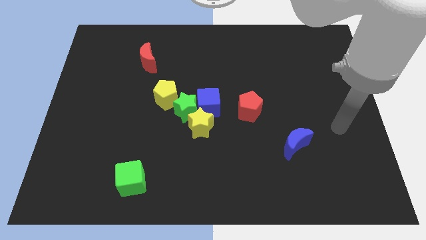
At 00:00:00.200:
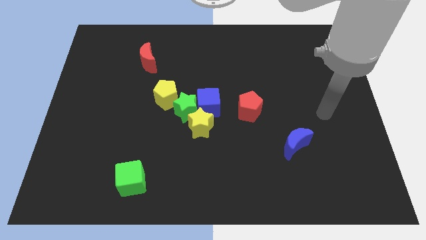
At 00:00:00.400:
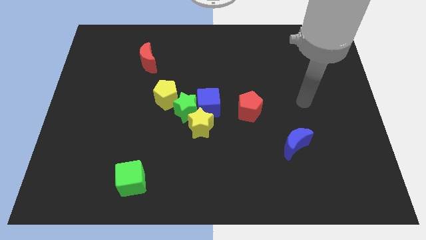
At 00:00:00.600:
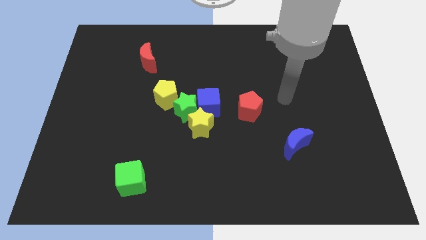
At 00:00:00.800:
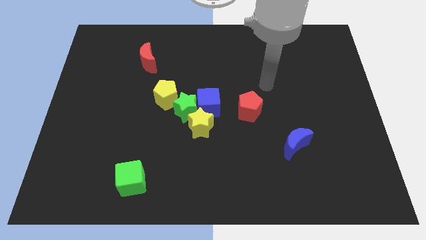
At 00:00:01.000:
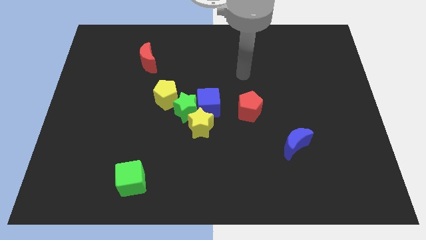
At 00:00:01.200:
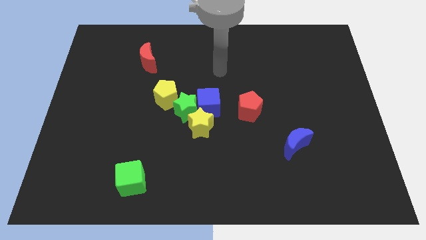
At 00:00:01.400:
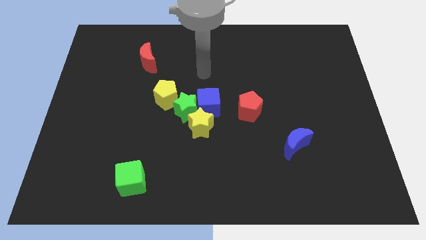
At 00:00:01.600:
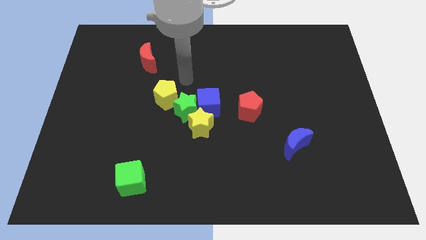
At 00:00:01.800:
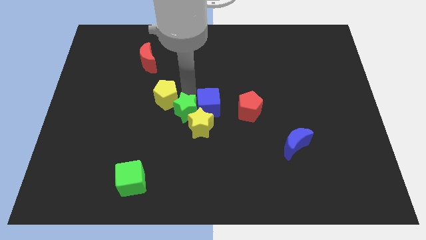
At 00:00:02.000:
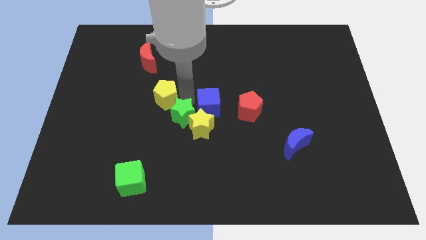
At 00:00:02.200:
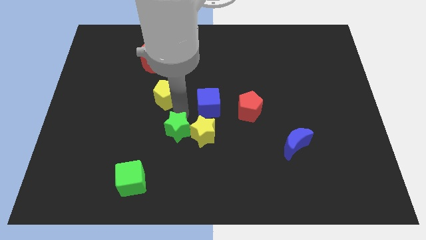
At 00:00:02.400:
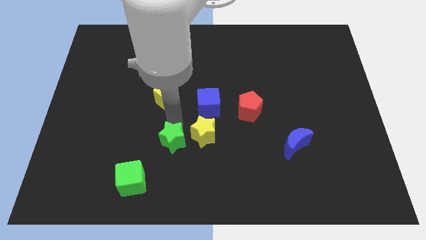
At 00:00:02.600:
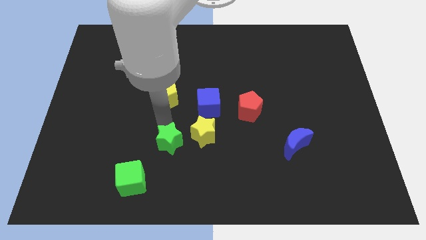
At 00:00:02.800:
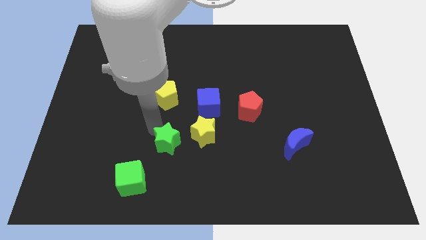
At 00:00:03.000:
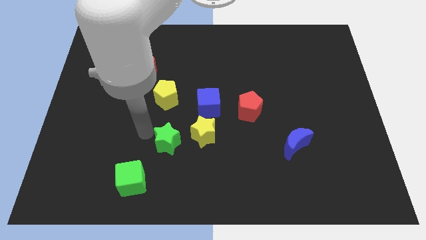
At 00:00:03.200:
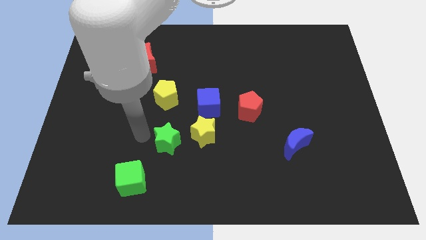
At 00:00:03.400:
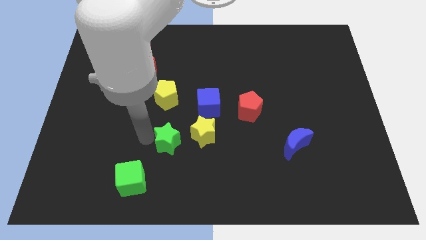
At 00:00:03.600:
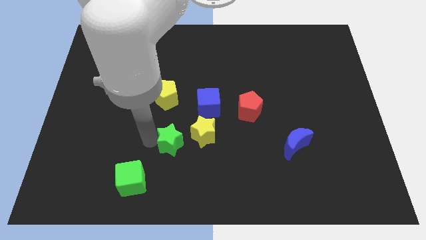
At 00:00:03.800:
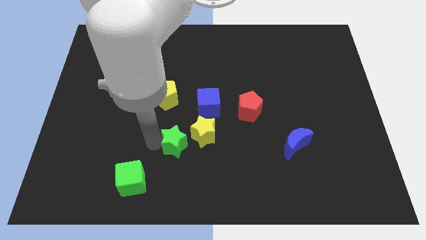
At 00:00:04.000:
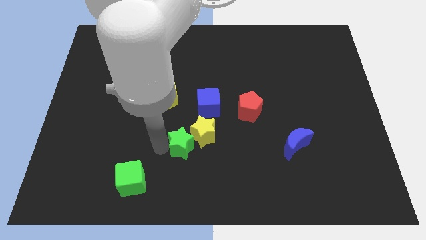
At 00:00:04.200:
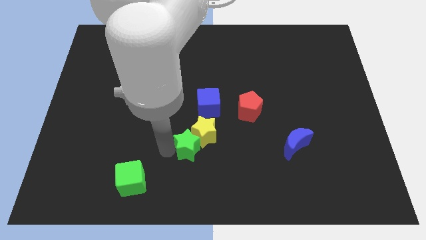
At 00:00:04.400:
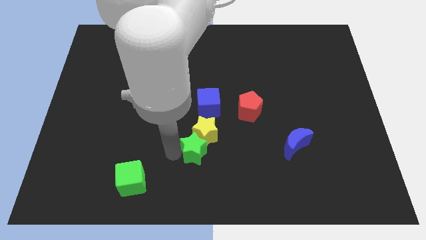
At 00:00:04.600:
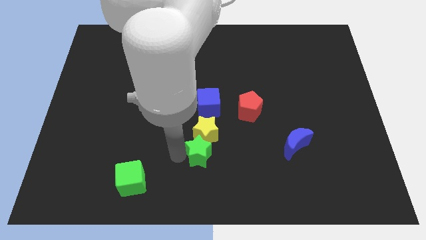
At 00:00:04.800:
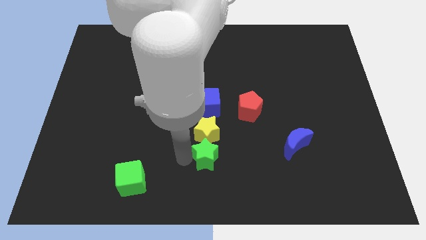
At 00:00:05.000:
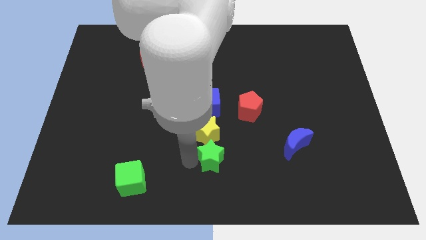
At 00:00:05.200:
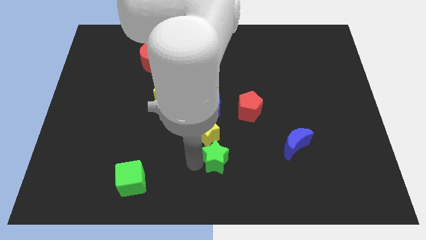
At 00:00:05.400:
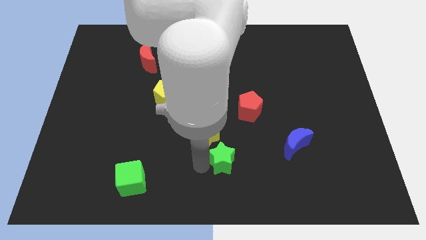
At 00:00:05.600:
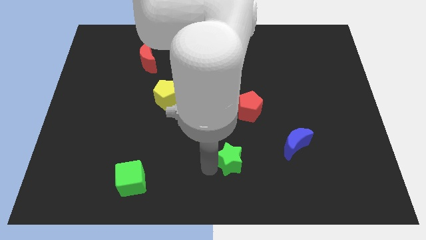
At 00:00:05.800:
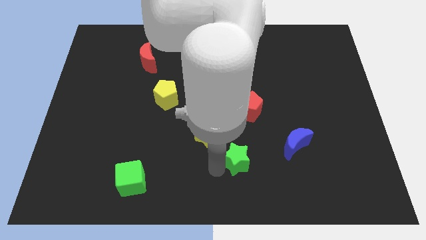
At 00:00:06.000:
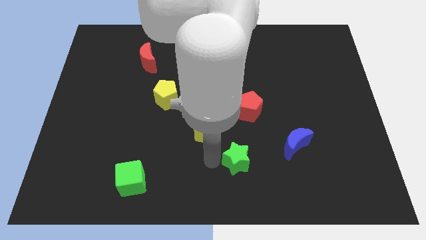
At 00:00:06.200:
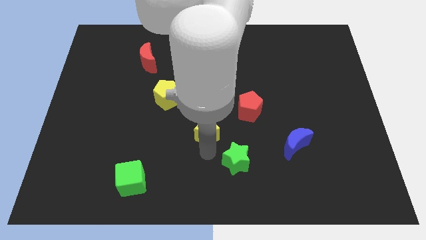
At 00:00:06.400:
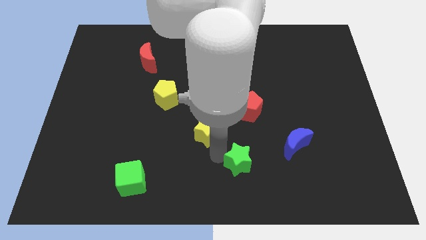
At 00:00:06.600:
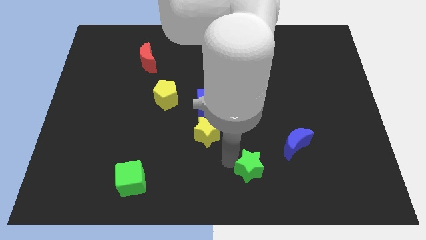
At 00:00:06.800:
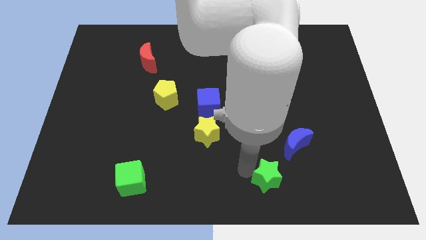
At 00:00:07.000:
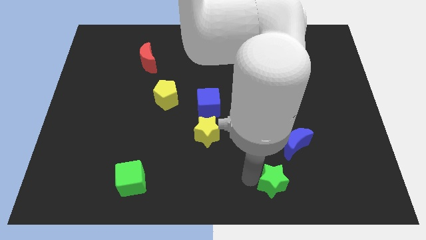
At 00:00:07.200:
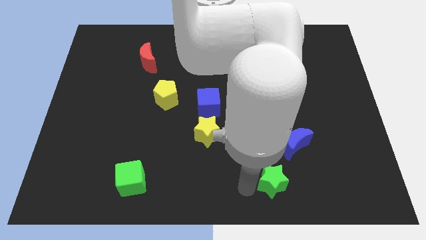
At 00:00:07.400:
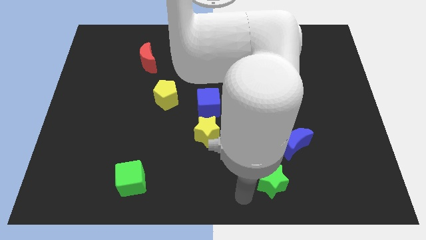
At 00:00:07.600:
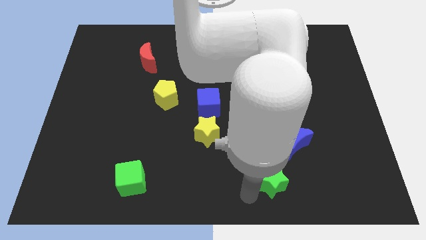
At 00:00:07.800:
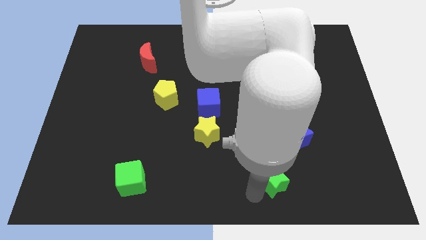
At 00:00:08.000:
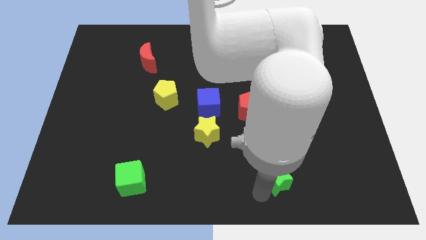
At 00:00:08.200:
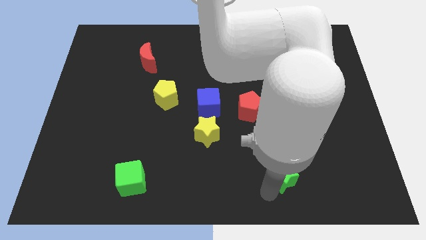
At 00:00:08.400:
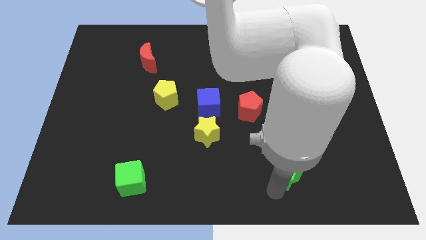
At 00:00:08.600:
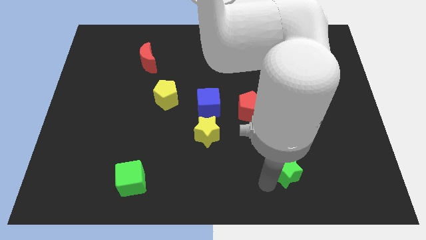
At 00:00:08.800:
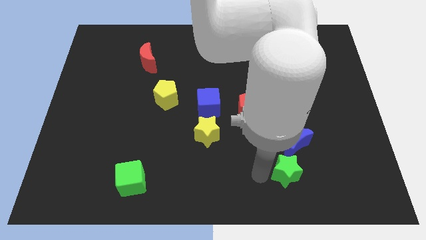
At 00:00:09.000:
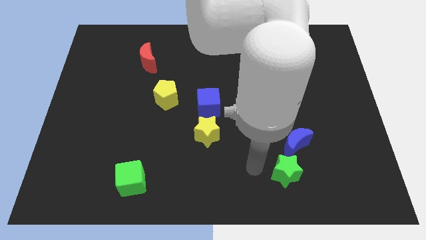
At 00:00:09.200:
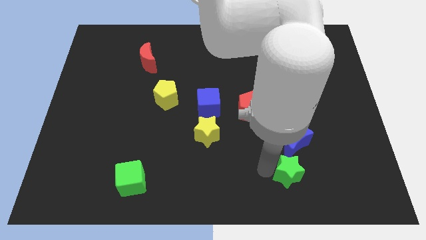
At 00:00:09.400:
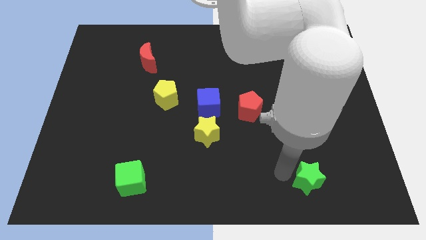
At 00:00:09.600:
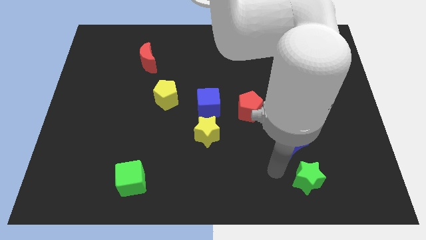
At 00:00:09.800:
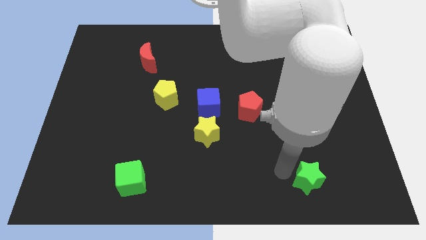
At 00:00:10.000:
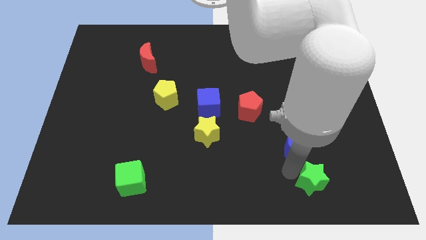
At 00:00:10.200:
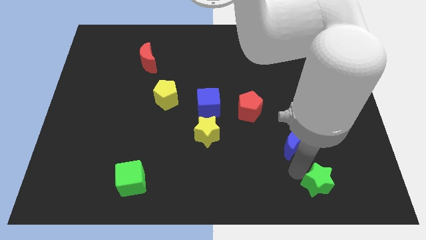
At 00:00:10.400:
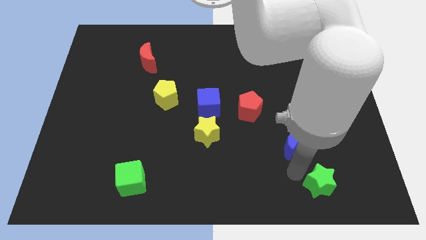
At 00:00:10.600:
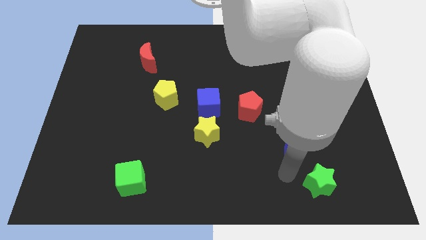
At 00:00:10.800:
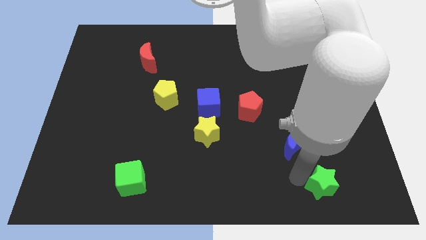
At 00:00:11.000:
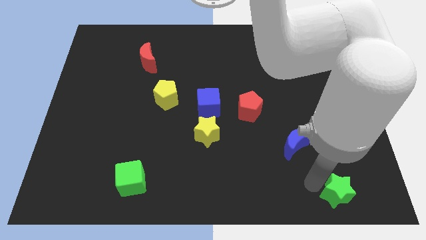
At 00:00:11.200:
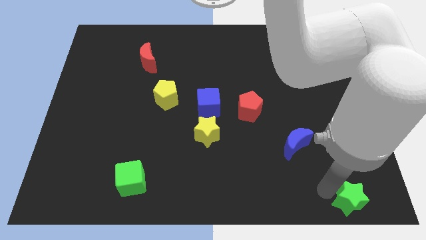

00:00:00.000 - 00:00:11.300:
push the green star to the bottom right corner
